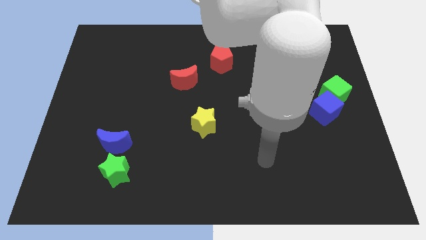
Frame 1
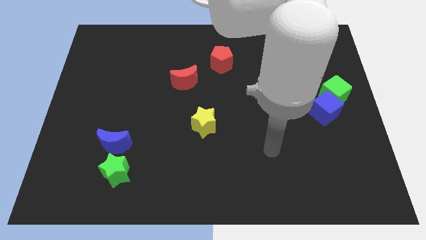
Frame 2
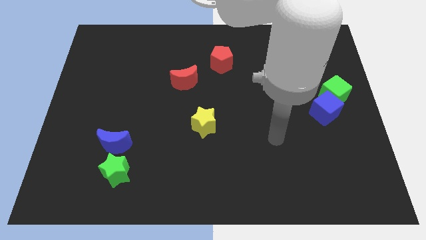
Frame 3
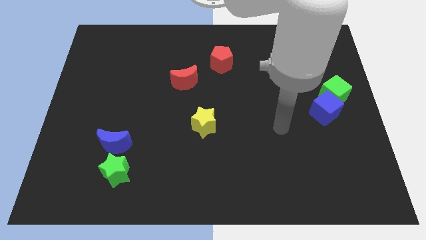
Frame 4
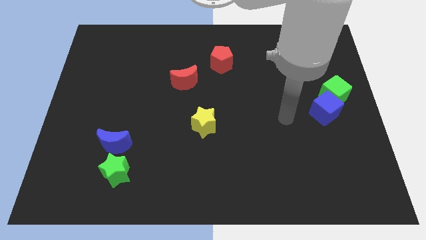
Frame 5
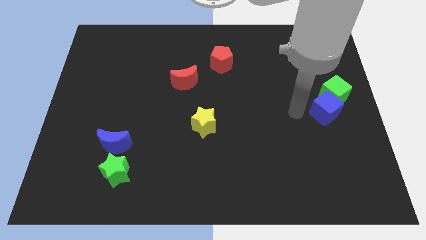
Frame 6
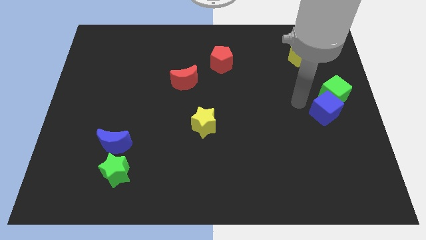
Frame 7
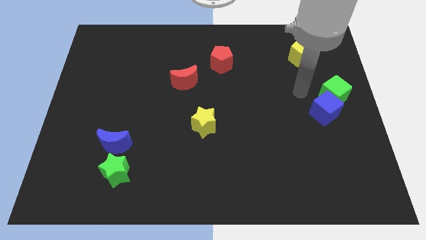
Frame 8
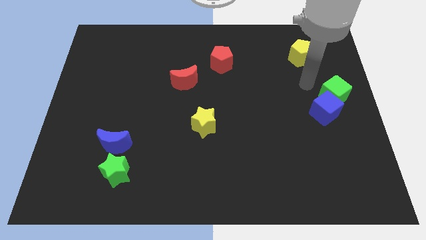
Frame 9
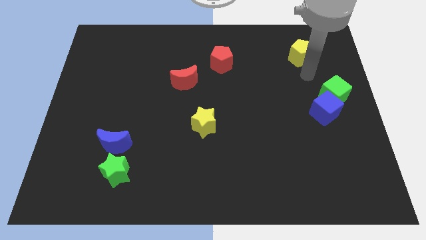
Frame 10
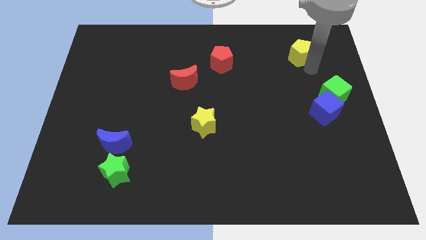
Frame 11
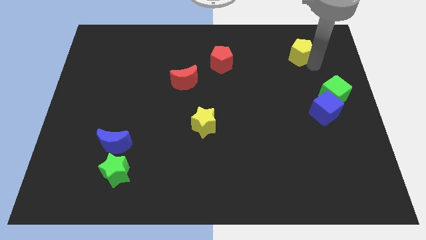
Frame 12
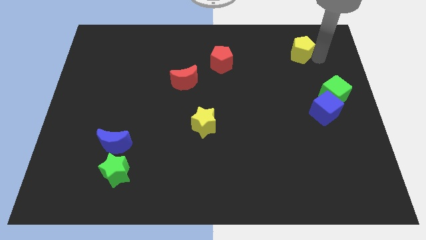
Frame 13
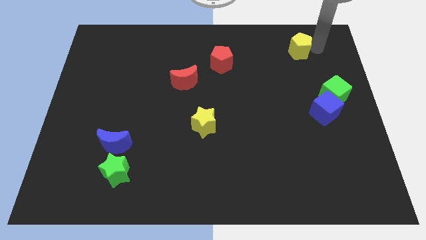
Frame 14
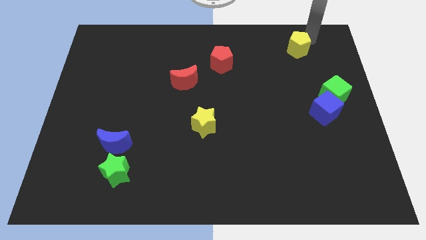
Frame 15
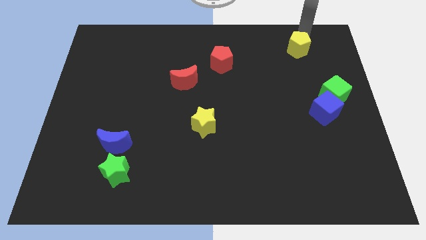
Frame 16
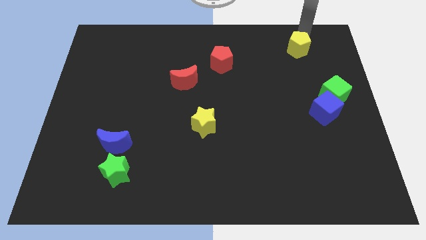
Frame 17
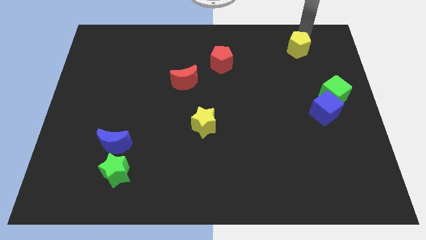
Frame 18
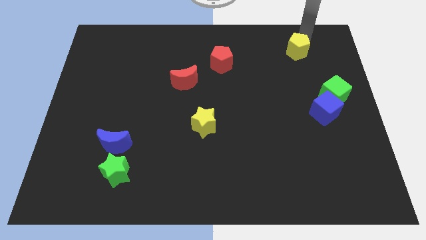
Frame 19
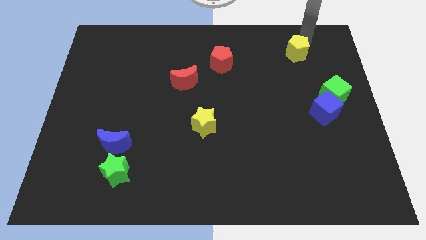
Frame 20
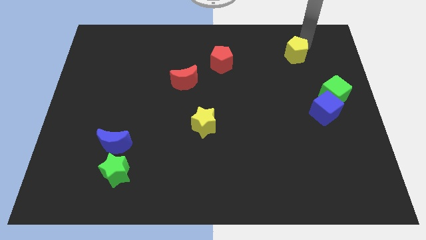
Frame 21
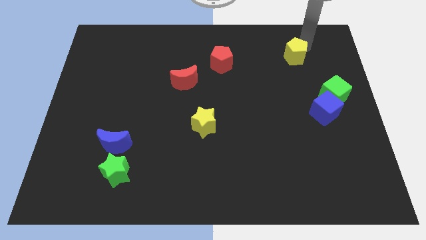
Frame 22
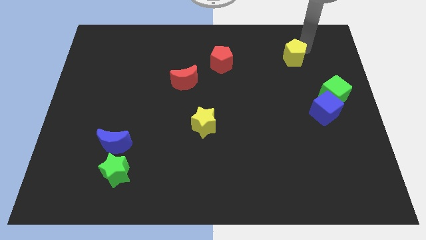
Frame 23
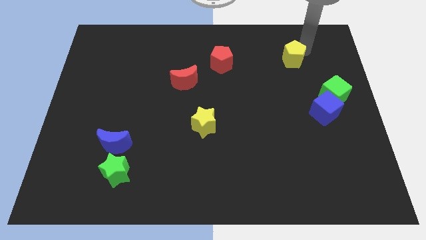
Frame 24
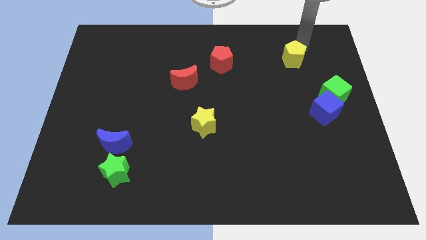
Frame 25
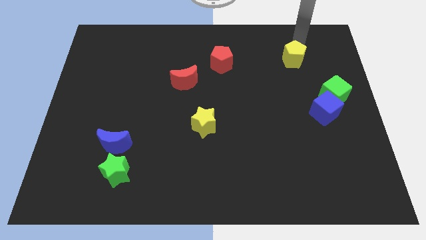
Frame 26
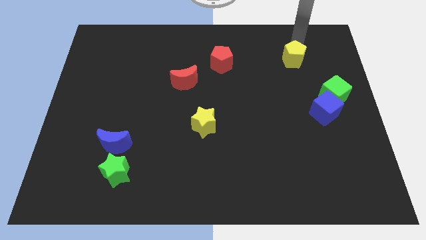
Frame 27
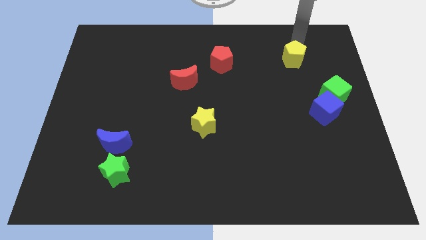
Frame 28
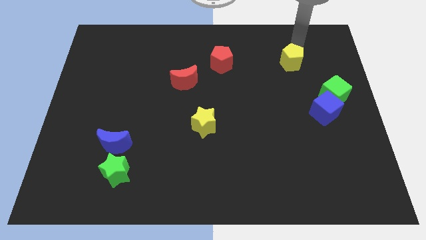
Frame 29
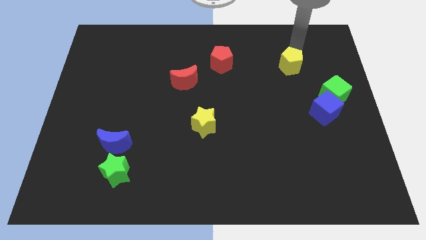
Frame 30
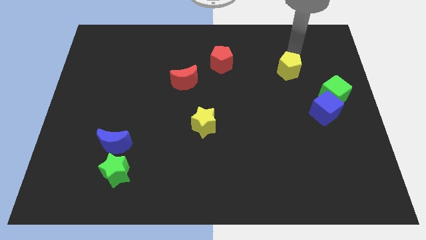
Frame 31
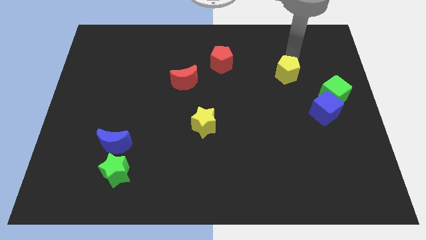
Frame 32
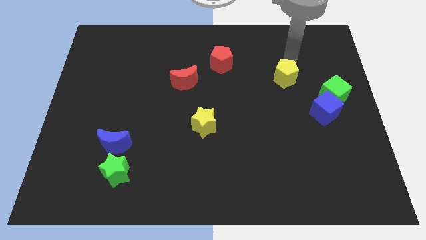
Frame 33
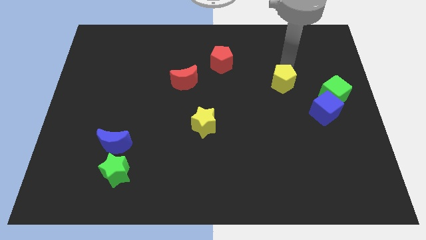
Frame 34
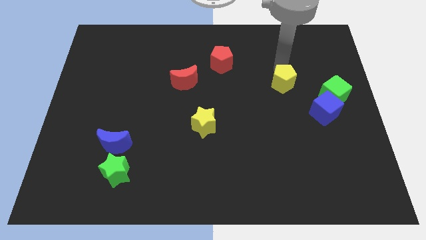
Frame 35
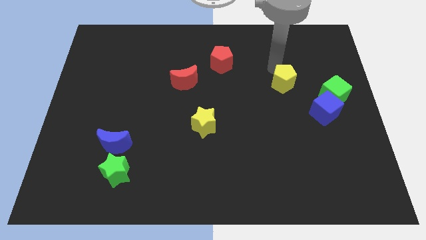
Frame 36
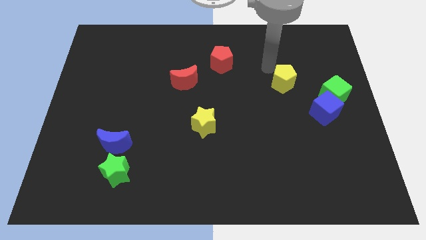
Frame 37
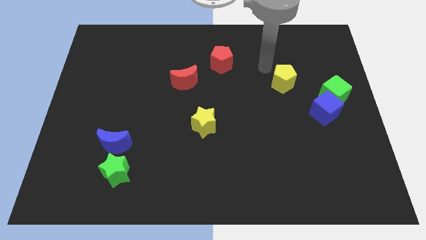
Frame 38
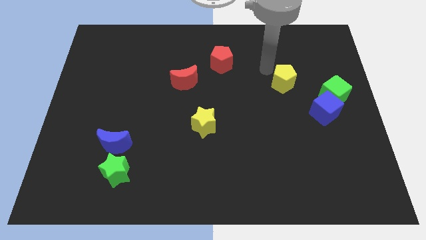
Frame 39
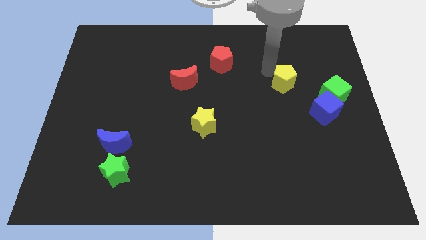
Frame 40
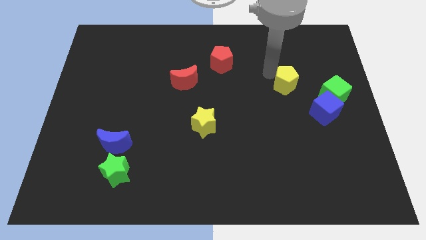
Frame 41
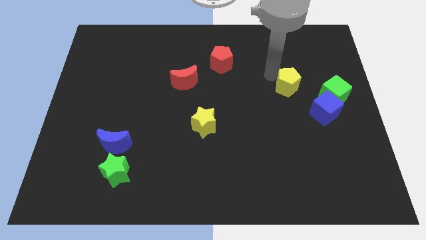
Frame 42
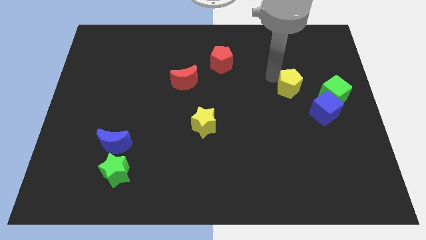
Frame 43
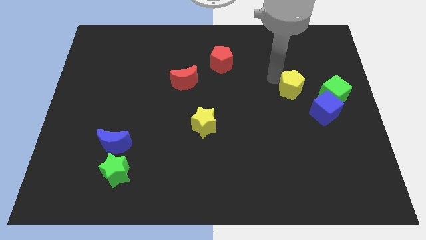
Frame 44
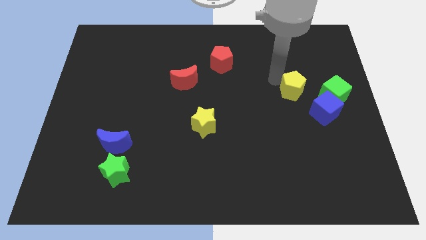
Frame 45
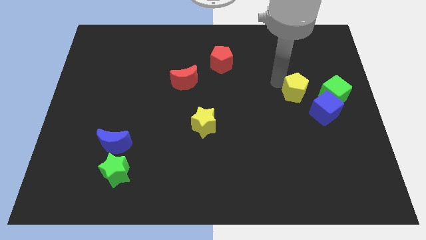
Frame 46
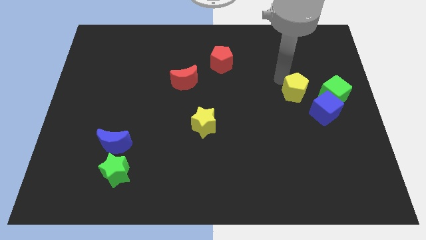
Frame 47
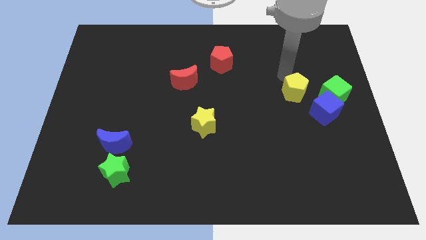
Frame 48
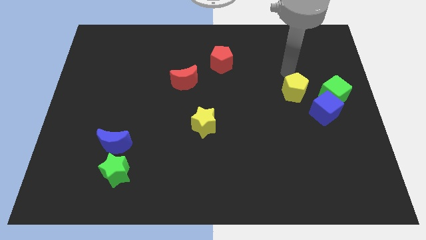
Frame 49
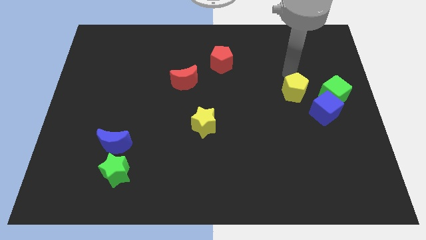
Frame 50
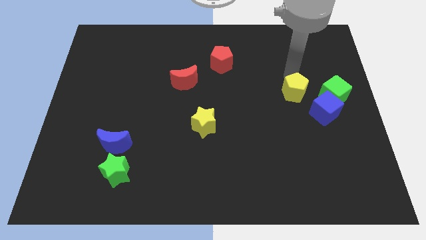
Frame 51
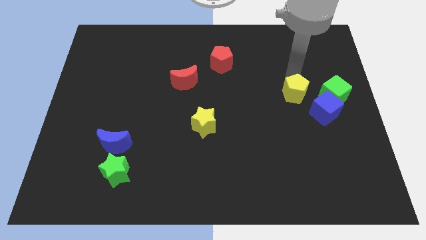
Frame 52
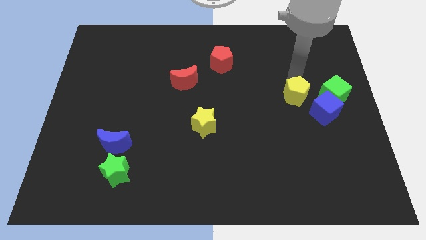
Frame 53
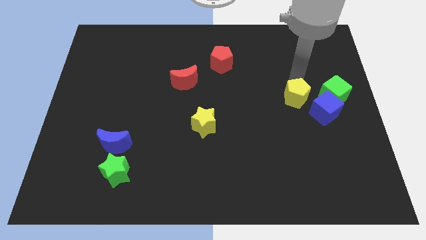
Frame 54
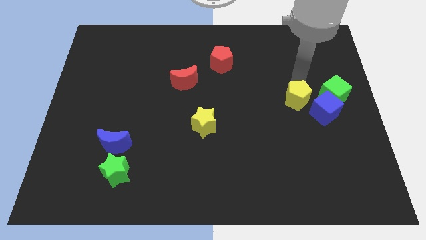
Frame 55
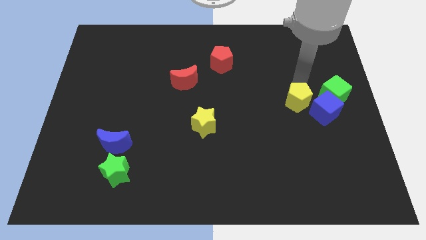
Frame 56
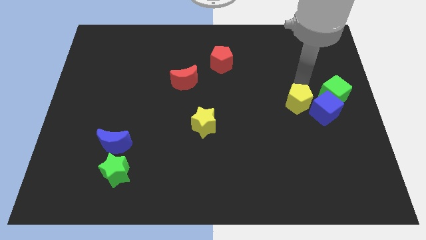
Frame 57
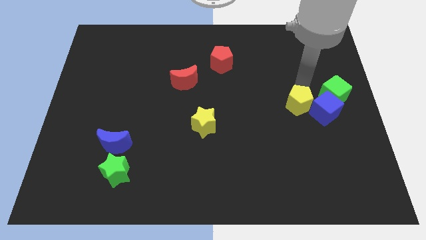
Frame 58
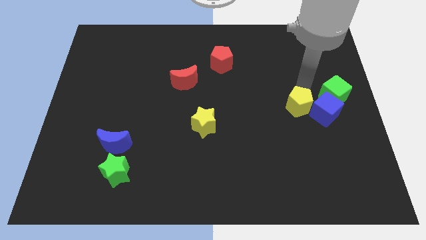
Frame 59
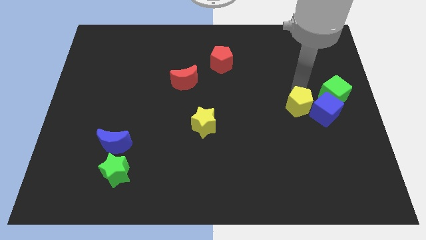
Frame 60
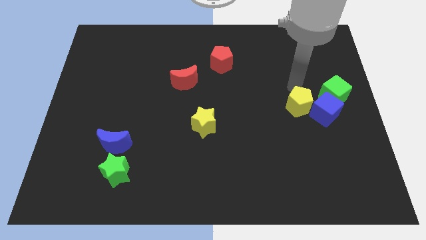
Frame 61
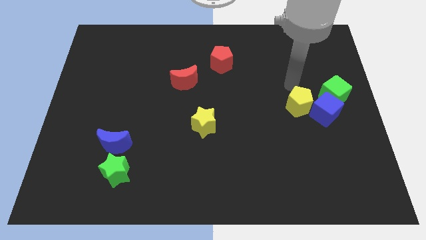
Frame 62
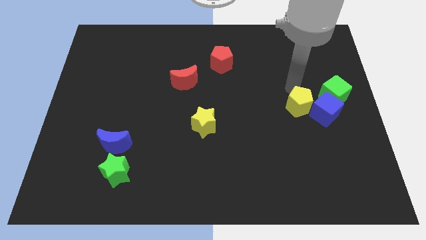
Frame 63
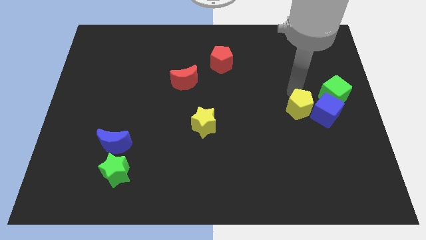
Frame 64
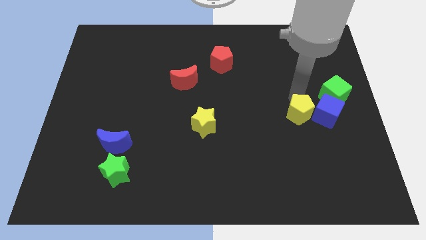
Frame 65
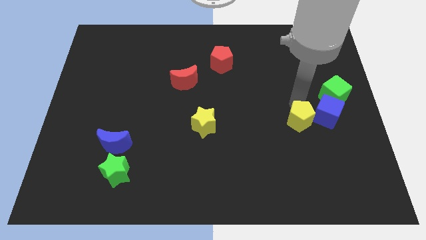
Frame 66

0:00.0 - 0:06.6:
slide the yellow pentagon down

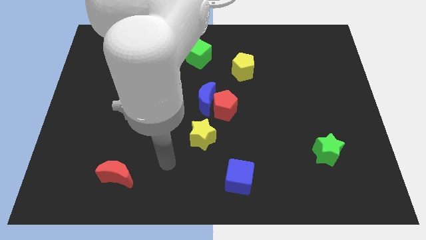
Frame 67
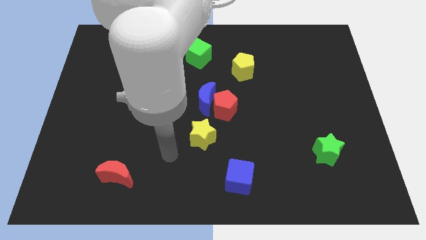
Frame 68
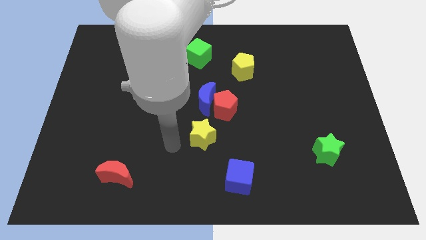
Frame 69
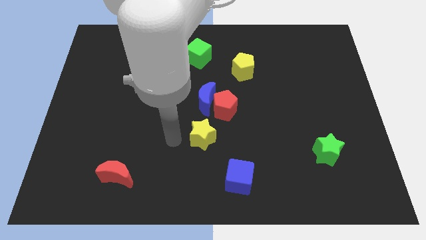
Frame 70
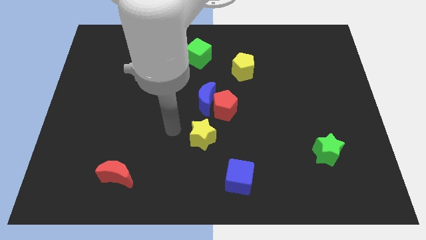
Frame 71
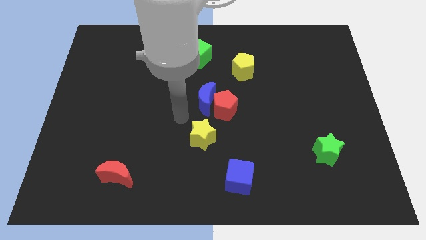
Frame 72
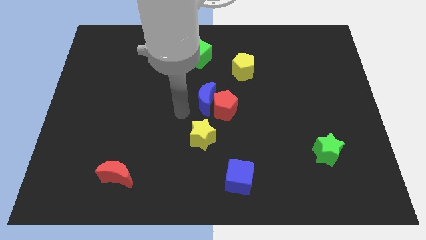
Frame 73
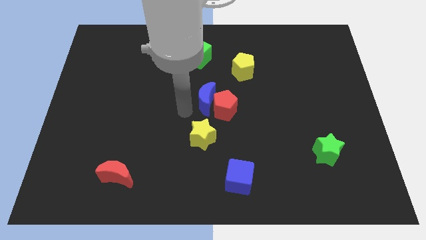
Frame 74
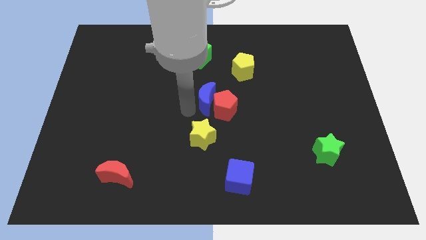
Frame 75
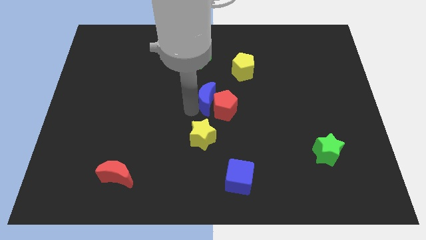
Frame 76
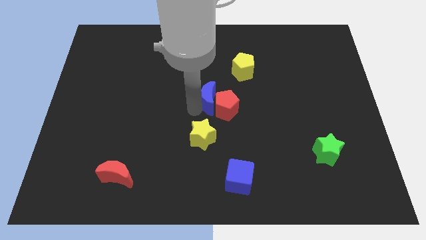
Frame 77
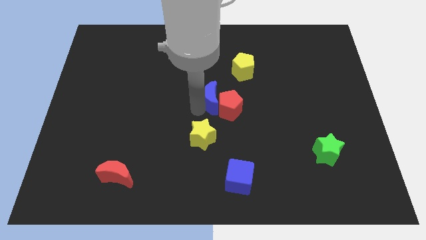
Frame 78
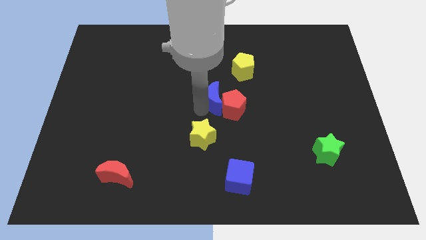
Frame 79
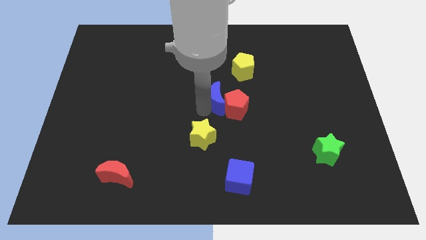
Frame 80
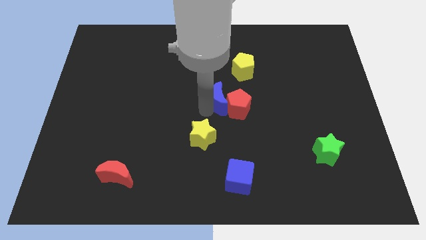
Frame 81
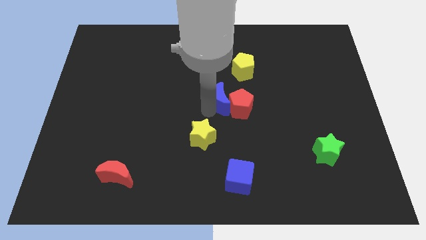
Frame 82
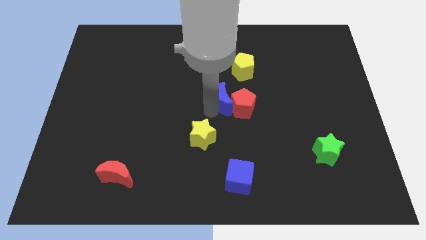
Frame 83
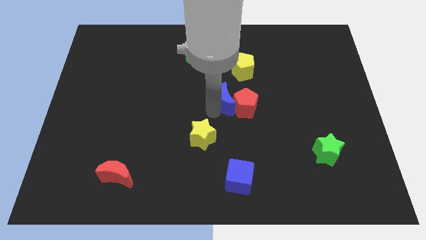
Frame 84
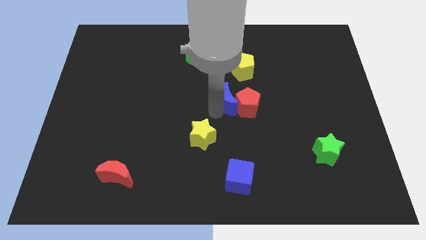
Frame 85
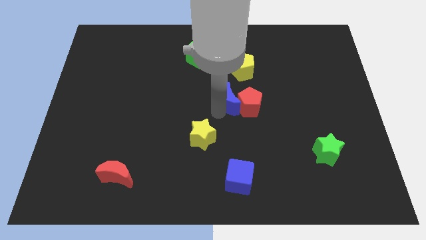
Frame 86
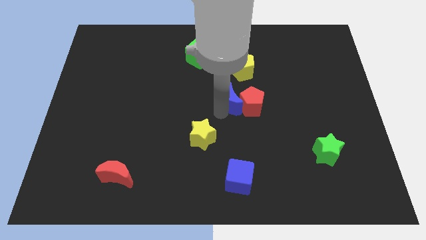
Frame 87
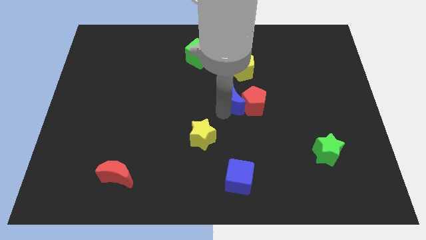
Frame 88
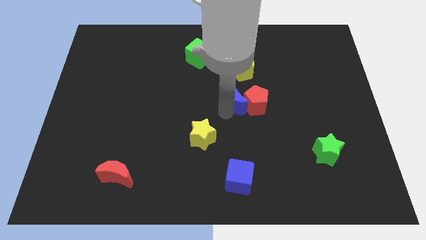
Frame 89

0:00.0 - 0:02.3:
move the blue moon right a little bit
